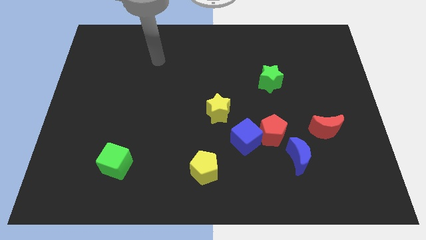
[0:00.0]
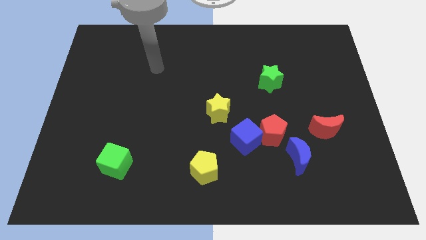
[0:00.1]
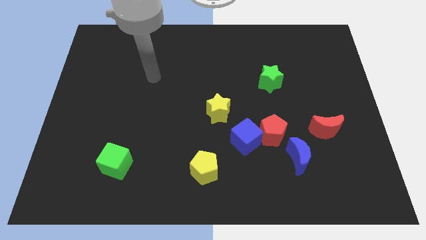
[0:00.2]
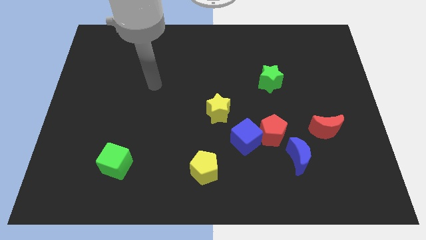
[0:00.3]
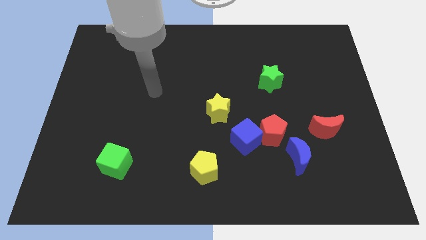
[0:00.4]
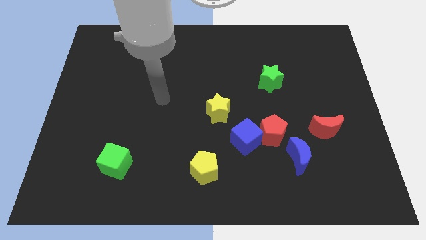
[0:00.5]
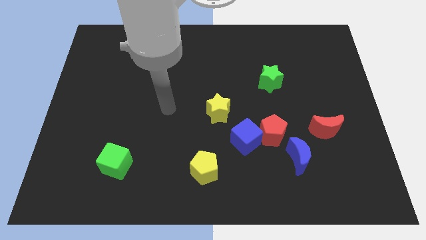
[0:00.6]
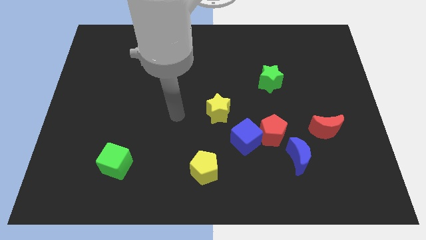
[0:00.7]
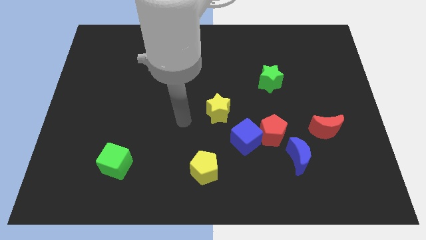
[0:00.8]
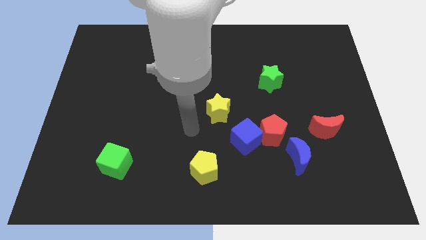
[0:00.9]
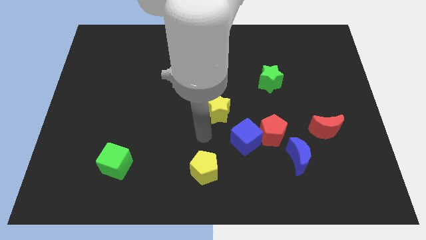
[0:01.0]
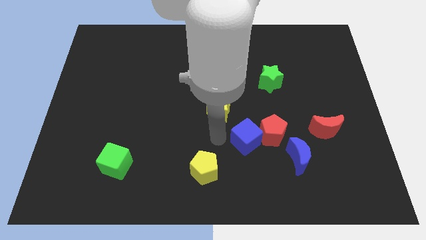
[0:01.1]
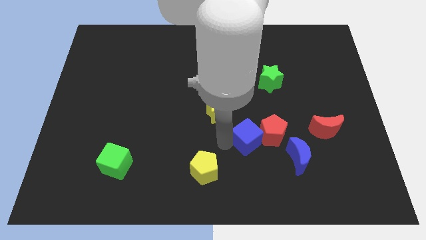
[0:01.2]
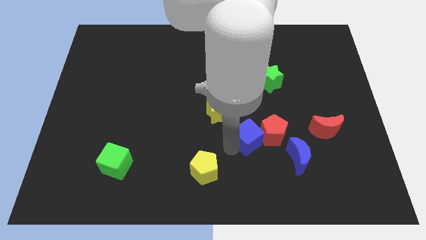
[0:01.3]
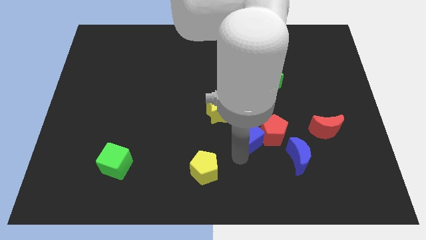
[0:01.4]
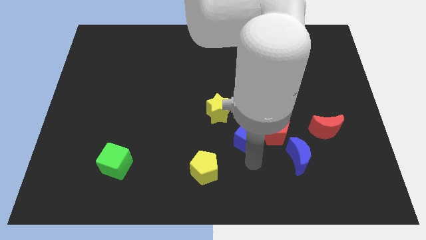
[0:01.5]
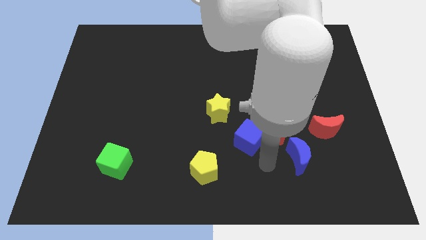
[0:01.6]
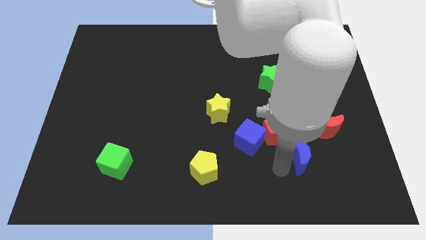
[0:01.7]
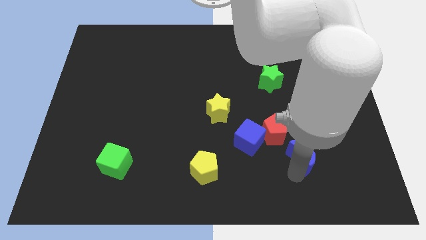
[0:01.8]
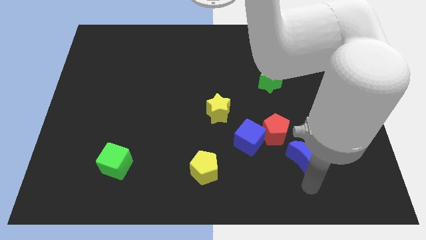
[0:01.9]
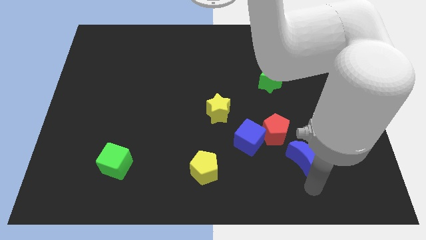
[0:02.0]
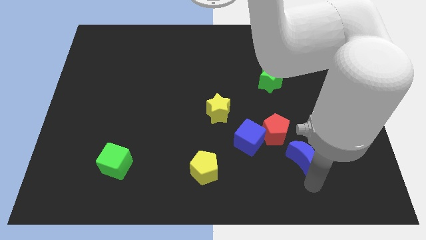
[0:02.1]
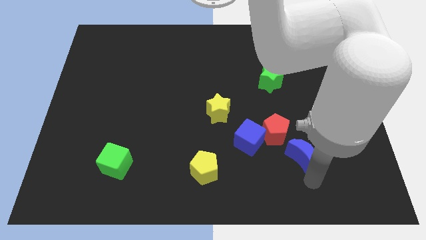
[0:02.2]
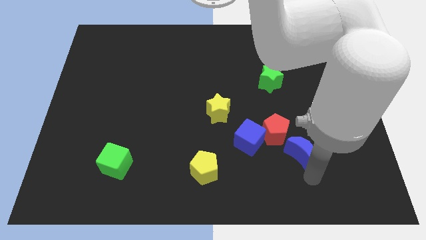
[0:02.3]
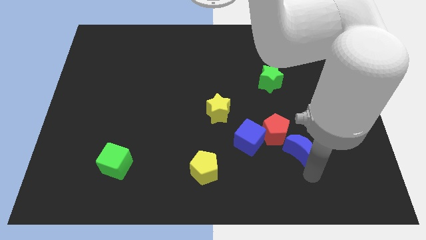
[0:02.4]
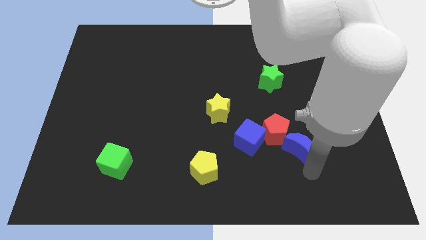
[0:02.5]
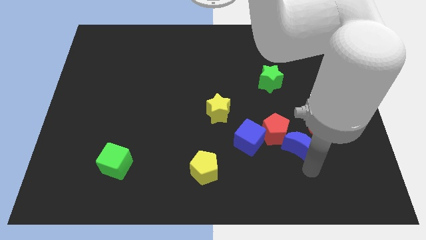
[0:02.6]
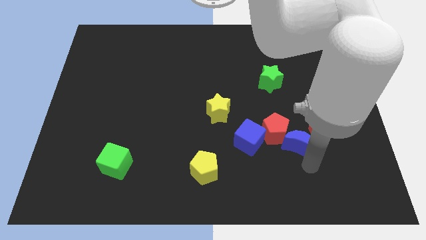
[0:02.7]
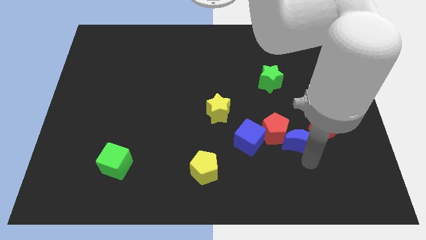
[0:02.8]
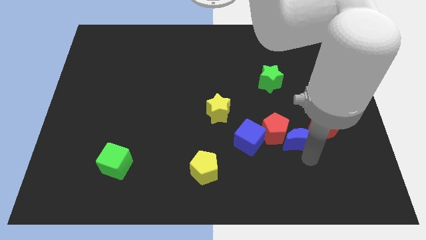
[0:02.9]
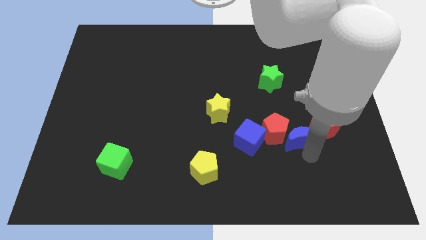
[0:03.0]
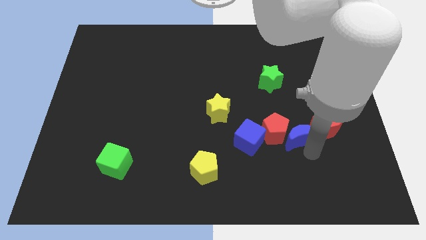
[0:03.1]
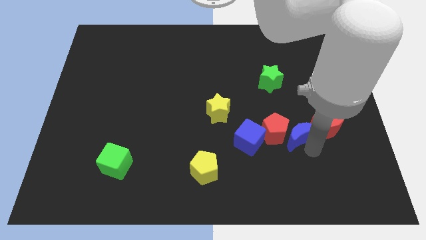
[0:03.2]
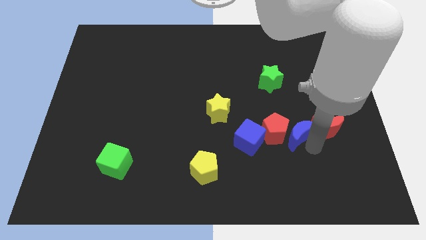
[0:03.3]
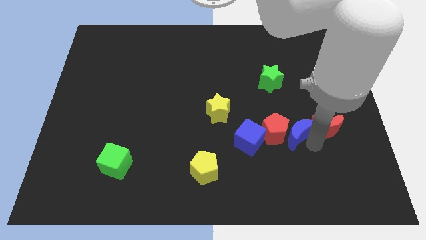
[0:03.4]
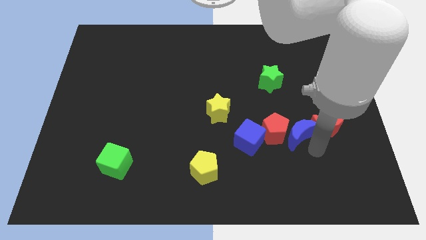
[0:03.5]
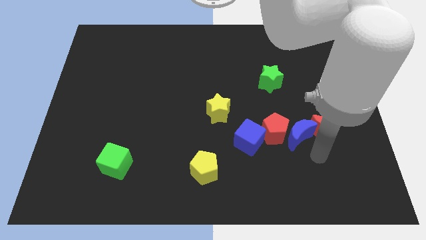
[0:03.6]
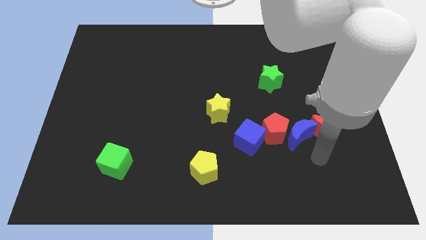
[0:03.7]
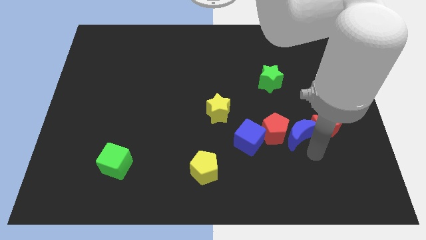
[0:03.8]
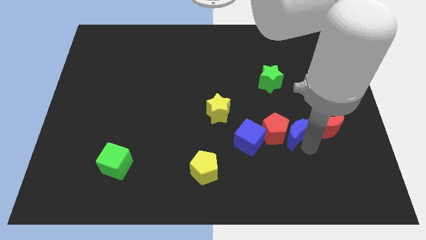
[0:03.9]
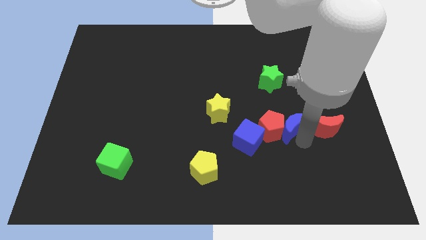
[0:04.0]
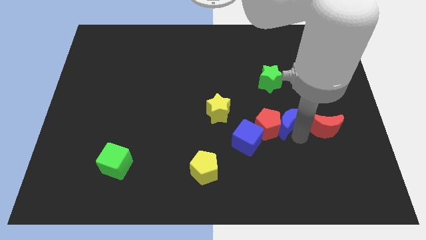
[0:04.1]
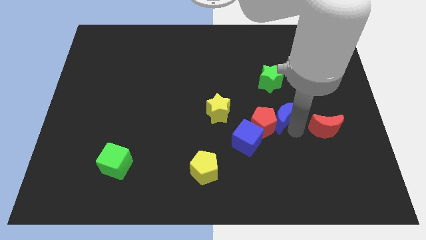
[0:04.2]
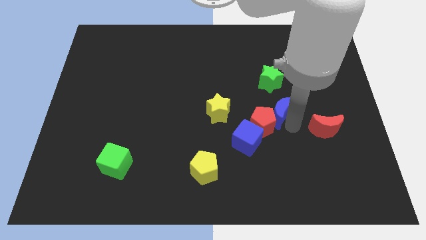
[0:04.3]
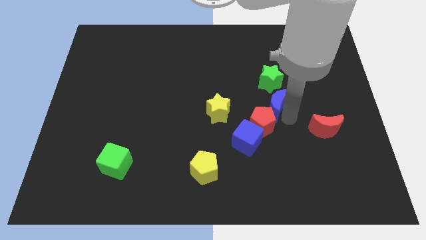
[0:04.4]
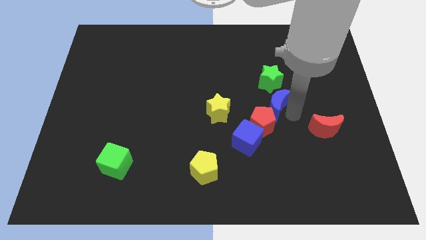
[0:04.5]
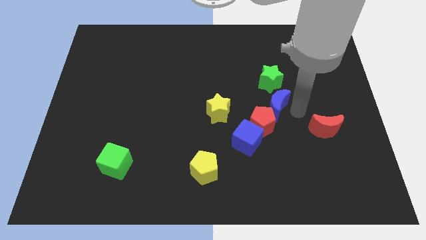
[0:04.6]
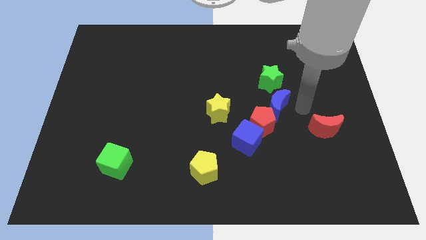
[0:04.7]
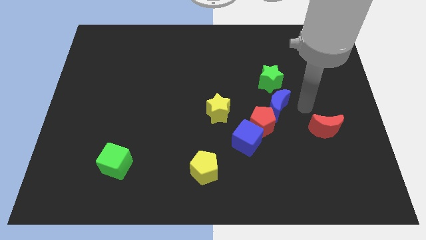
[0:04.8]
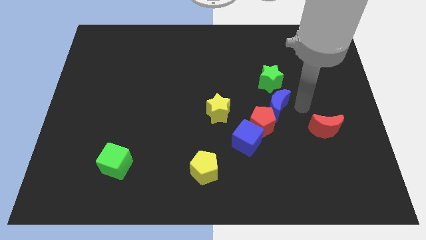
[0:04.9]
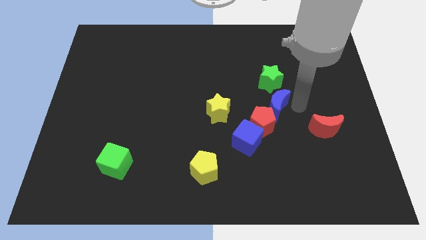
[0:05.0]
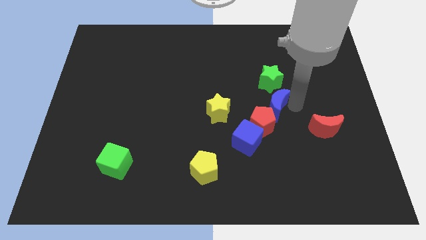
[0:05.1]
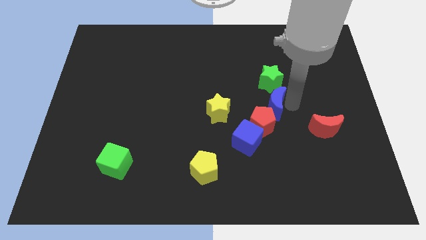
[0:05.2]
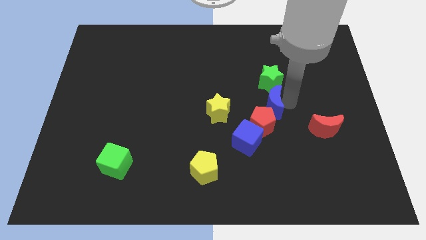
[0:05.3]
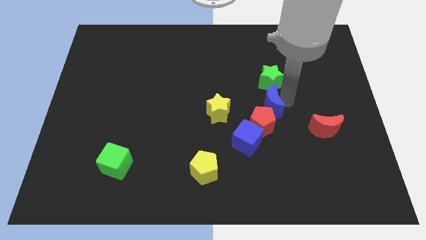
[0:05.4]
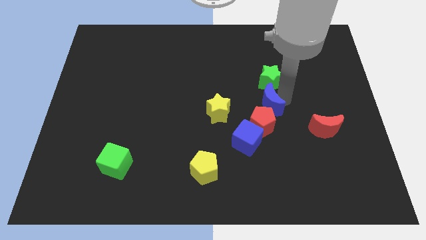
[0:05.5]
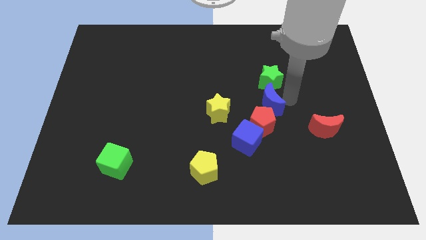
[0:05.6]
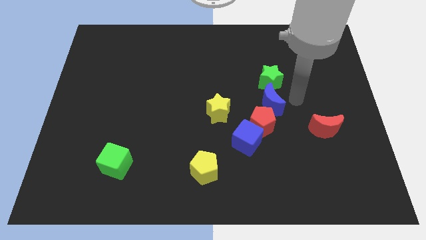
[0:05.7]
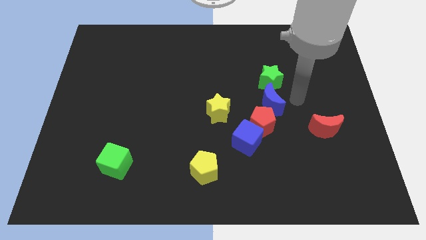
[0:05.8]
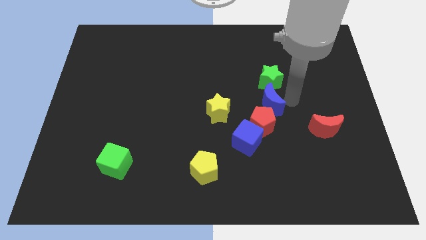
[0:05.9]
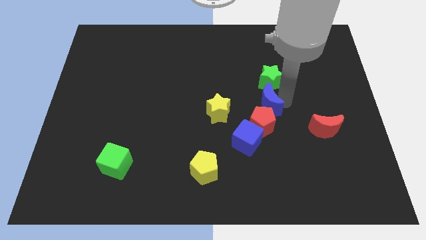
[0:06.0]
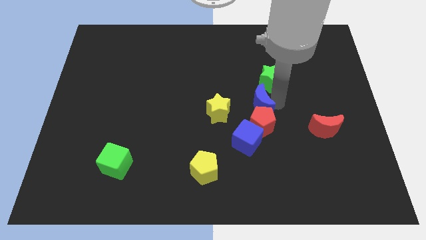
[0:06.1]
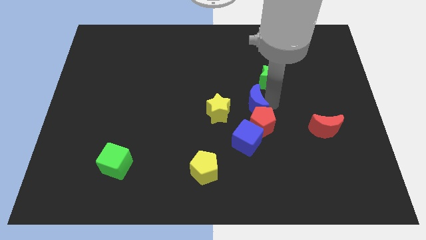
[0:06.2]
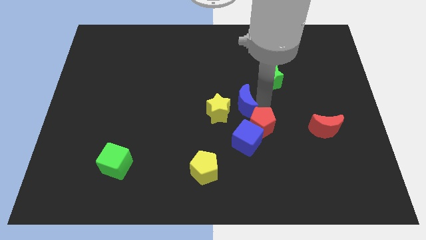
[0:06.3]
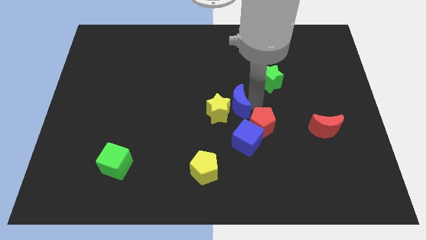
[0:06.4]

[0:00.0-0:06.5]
slide the blue moon towards the yellow star

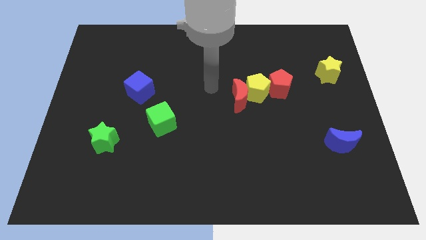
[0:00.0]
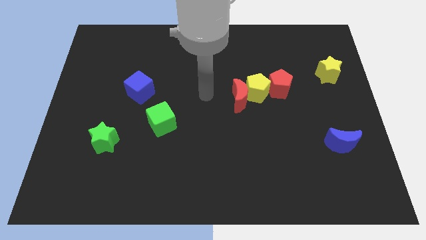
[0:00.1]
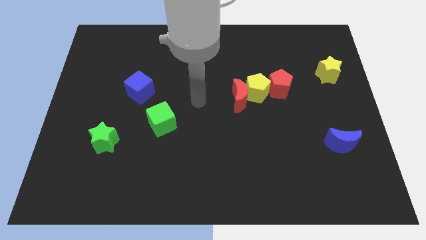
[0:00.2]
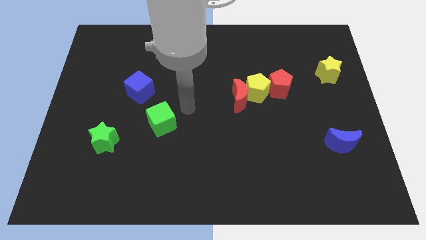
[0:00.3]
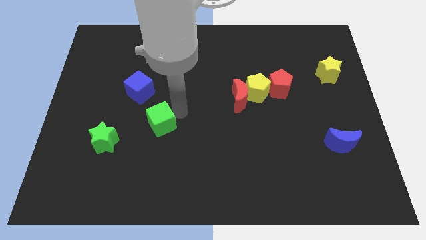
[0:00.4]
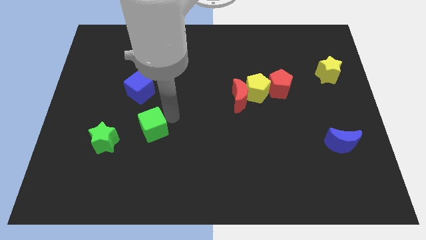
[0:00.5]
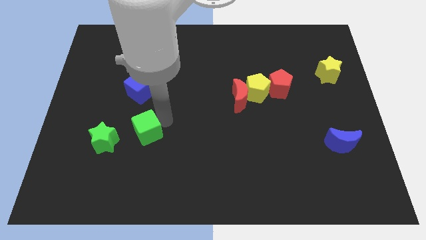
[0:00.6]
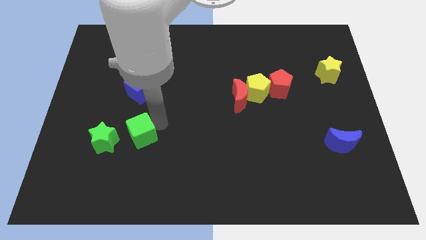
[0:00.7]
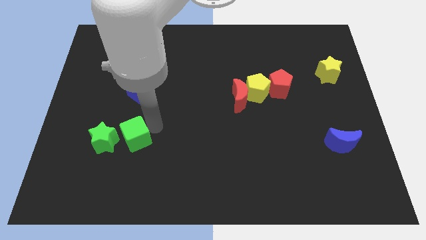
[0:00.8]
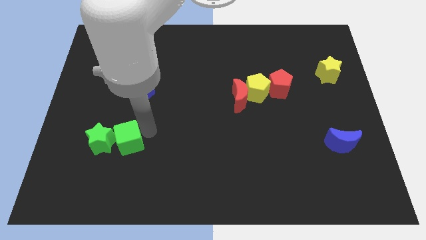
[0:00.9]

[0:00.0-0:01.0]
push the green cube to the green star
